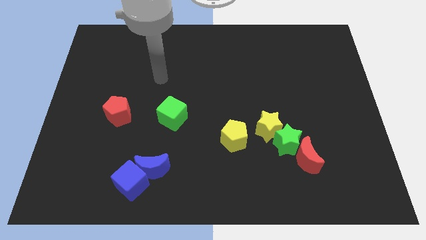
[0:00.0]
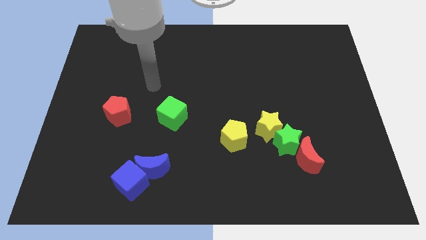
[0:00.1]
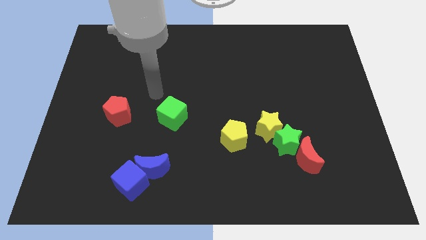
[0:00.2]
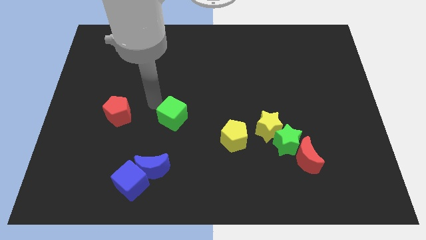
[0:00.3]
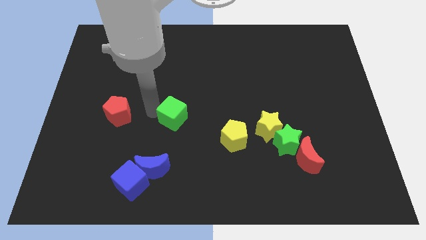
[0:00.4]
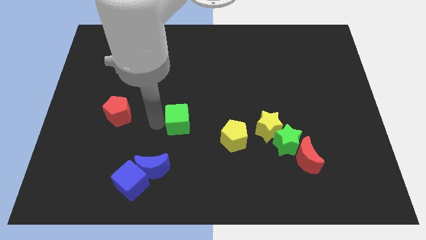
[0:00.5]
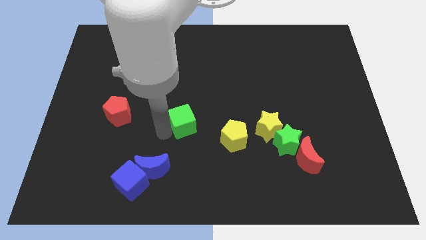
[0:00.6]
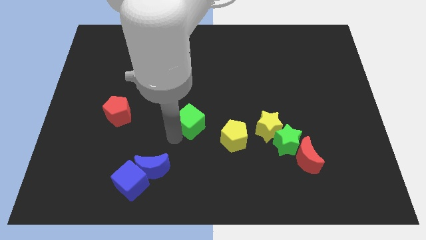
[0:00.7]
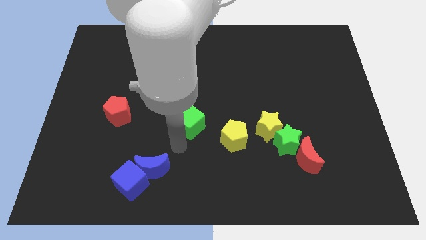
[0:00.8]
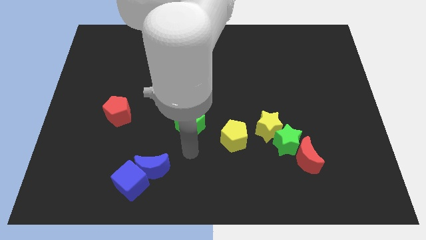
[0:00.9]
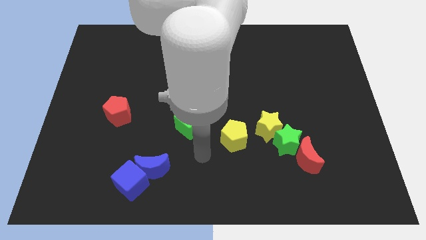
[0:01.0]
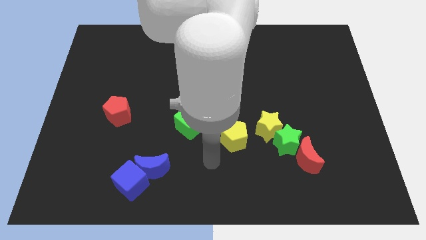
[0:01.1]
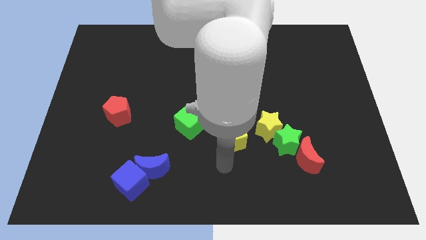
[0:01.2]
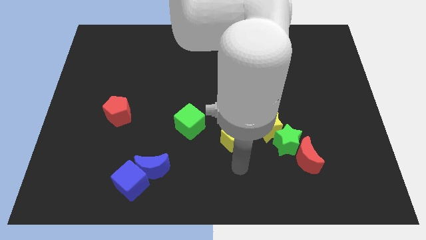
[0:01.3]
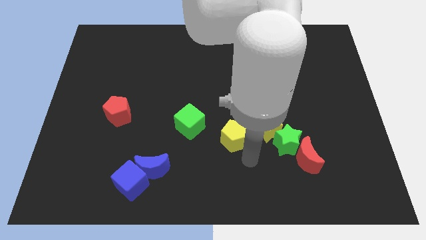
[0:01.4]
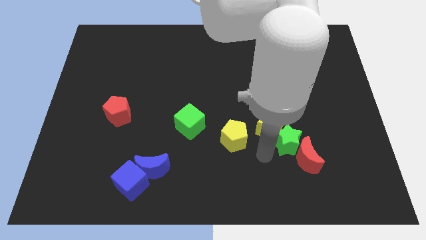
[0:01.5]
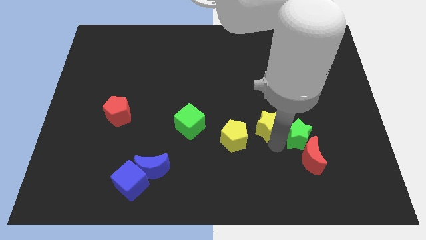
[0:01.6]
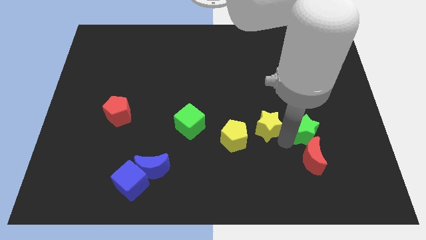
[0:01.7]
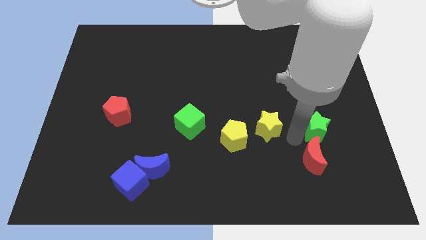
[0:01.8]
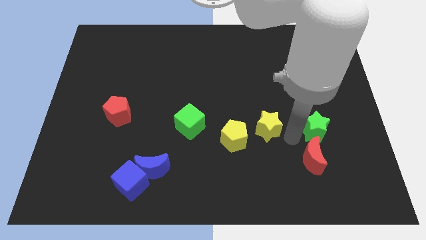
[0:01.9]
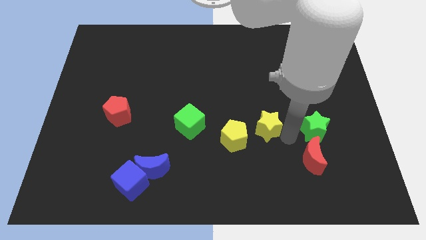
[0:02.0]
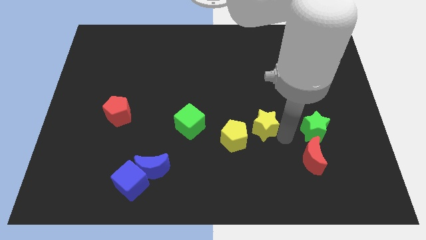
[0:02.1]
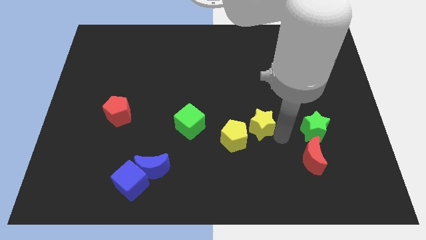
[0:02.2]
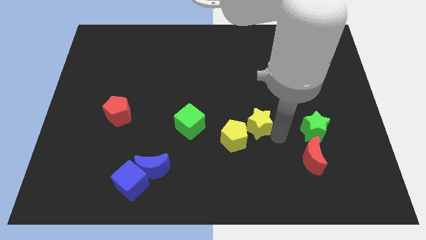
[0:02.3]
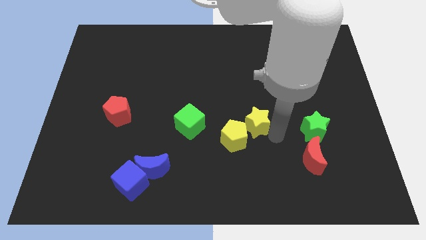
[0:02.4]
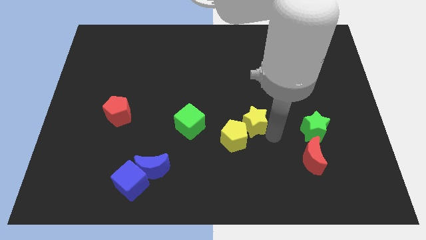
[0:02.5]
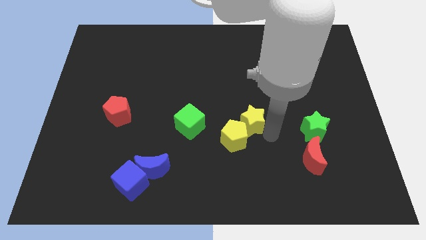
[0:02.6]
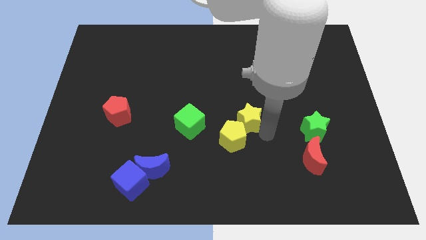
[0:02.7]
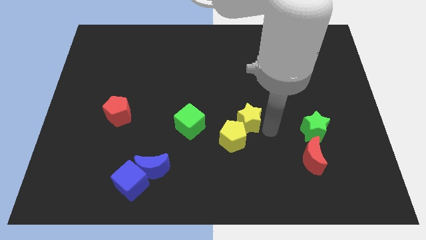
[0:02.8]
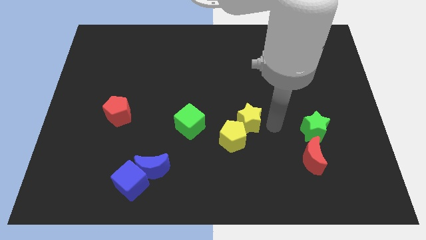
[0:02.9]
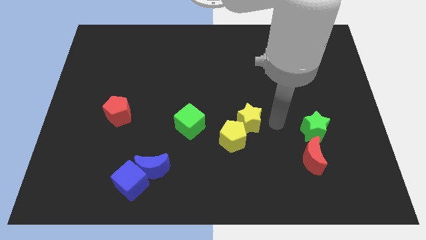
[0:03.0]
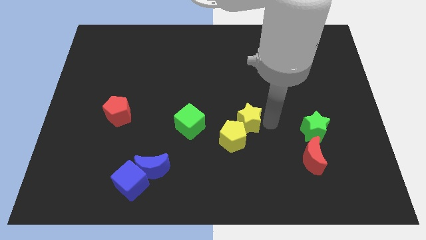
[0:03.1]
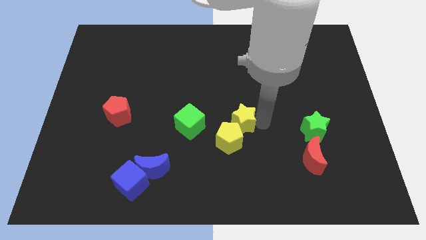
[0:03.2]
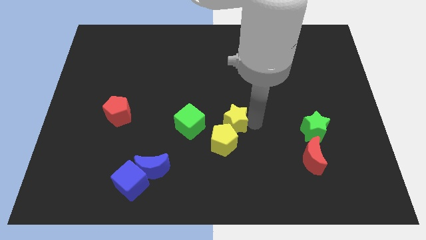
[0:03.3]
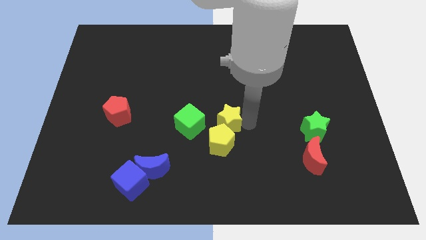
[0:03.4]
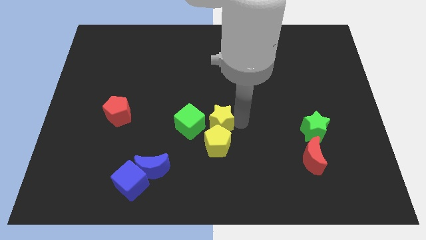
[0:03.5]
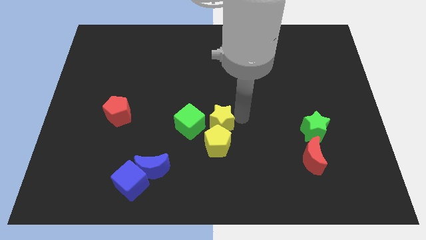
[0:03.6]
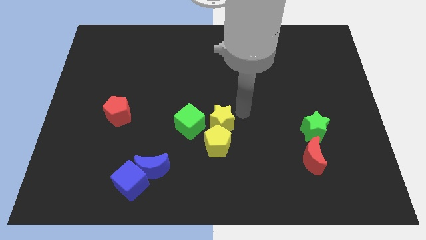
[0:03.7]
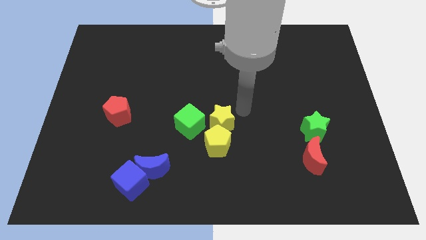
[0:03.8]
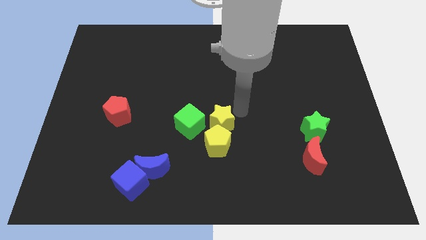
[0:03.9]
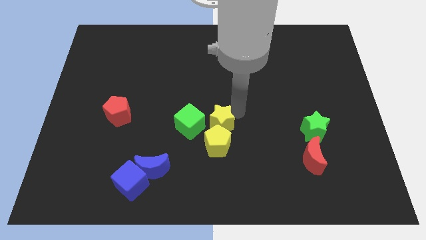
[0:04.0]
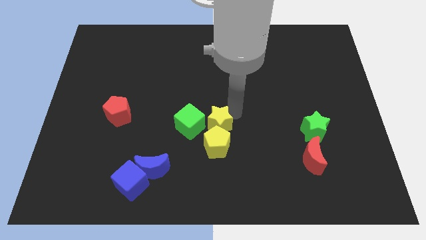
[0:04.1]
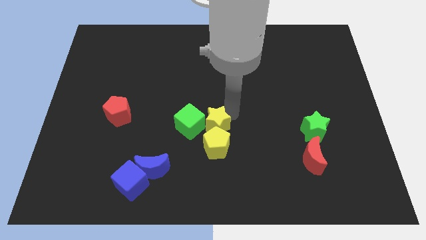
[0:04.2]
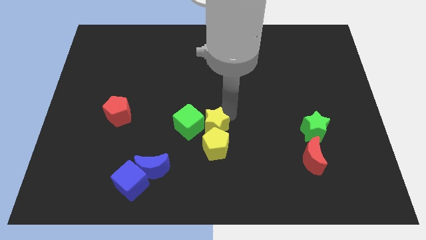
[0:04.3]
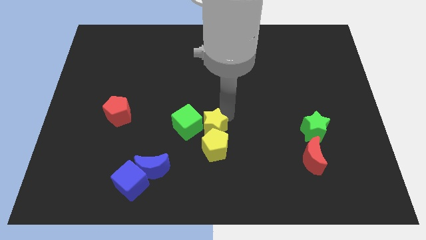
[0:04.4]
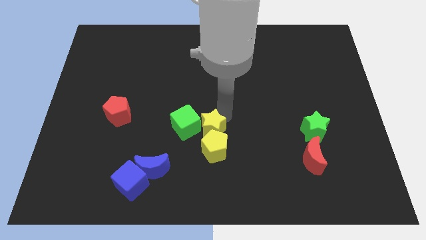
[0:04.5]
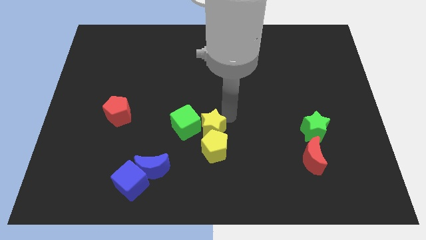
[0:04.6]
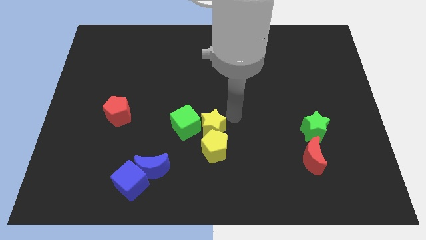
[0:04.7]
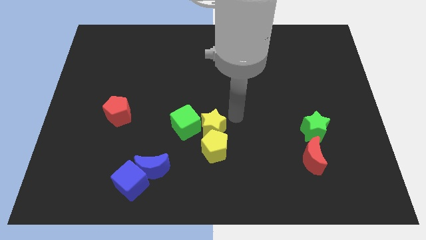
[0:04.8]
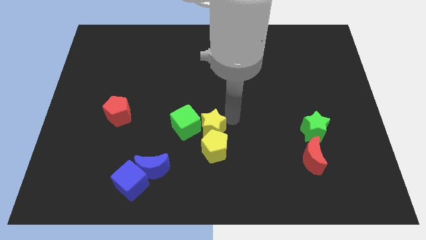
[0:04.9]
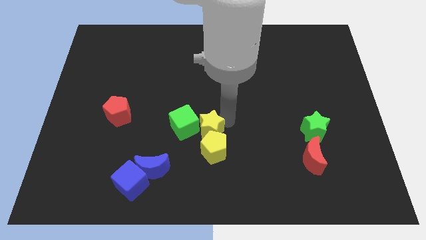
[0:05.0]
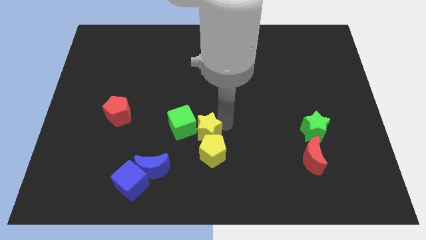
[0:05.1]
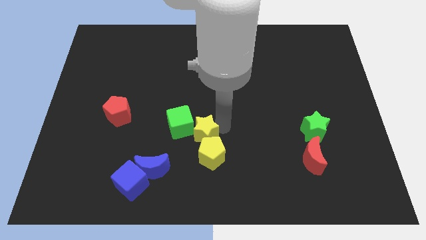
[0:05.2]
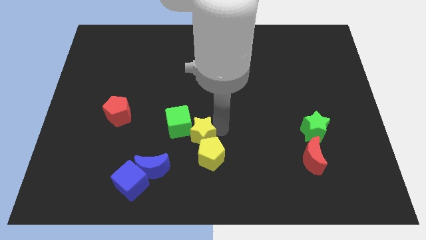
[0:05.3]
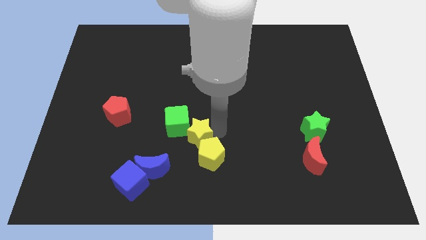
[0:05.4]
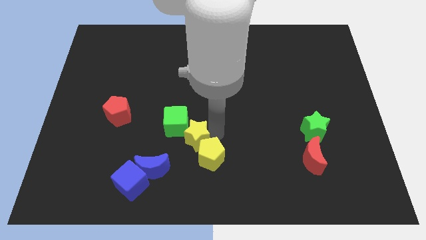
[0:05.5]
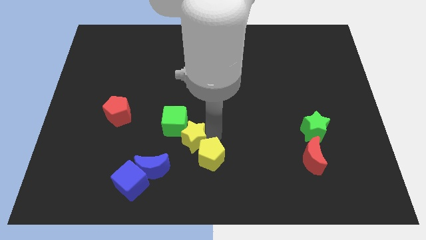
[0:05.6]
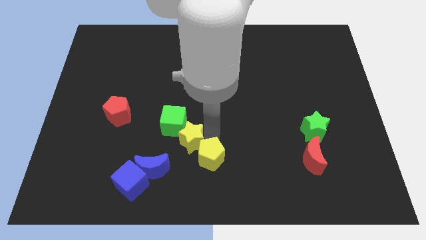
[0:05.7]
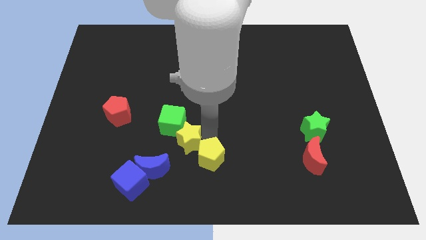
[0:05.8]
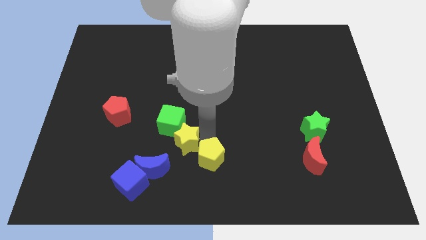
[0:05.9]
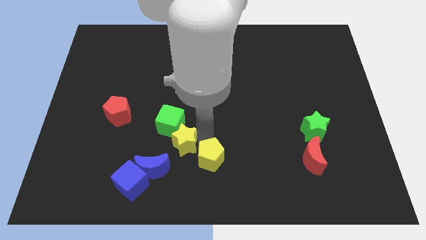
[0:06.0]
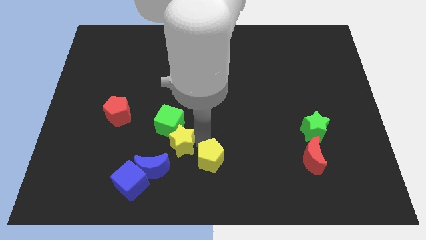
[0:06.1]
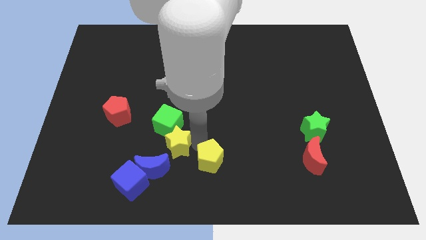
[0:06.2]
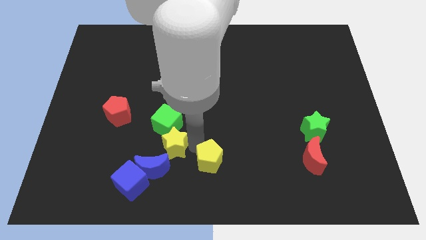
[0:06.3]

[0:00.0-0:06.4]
move the yellow star left

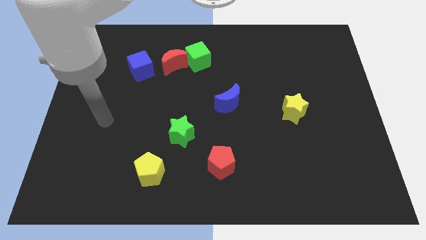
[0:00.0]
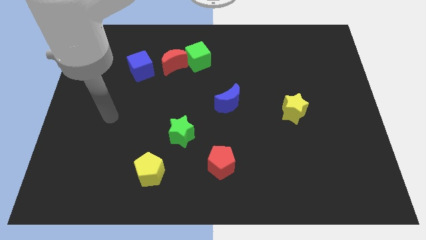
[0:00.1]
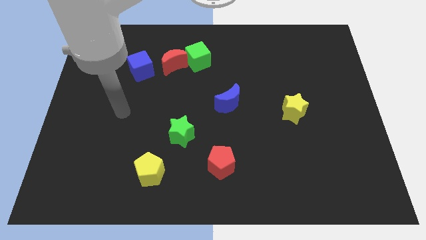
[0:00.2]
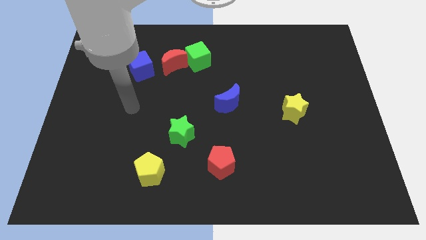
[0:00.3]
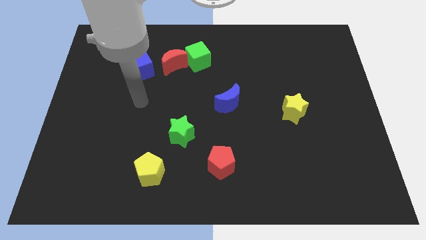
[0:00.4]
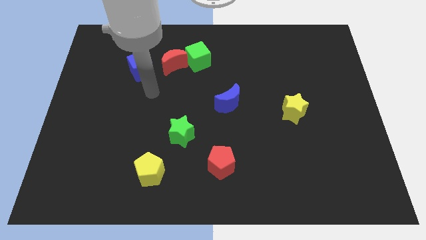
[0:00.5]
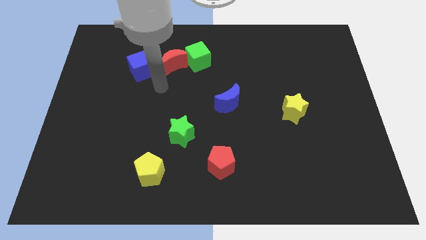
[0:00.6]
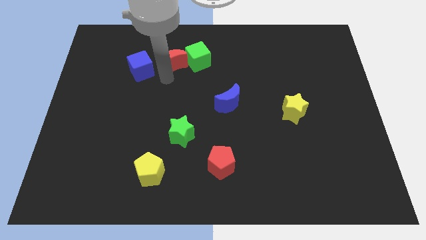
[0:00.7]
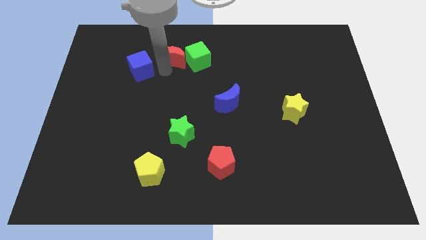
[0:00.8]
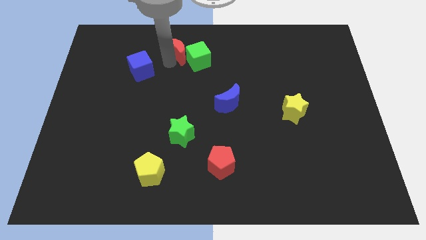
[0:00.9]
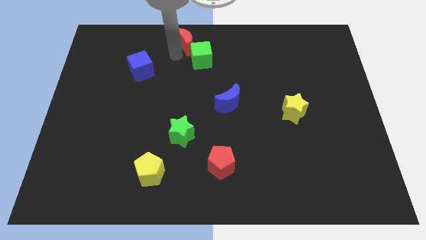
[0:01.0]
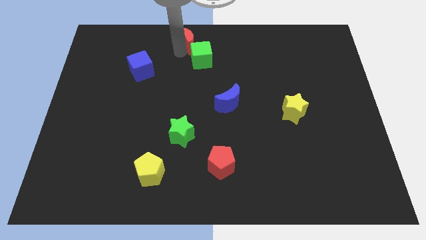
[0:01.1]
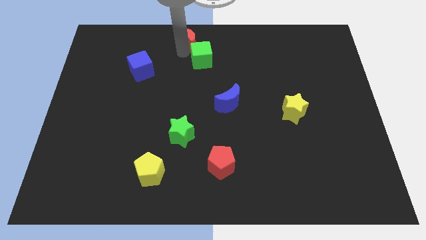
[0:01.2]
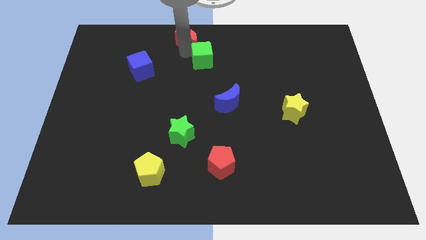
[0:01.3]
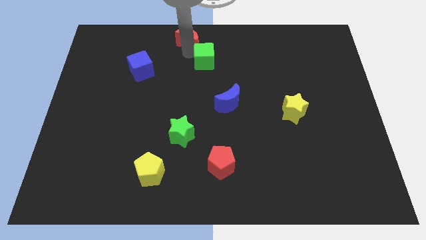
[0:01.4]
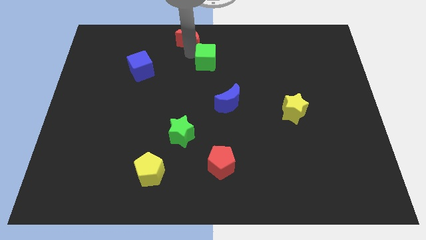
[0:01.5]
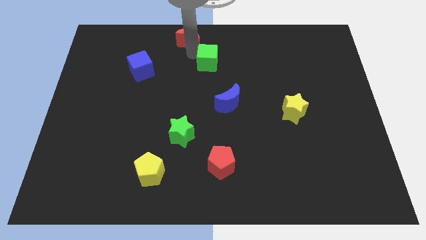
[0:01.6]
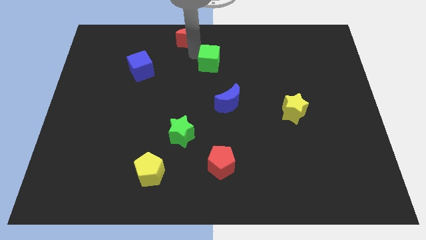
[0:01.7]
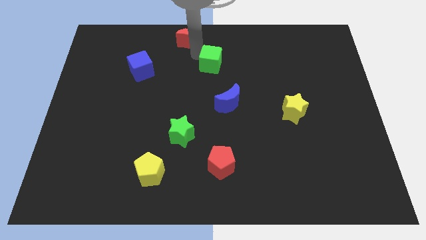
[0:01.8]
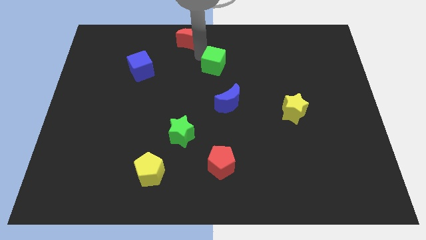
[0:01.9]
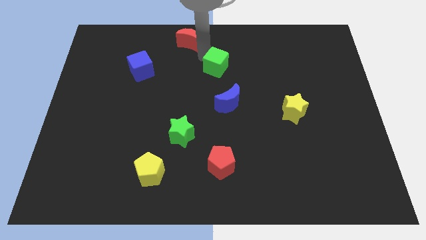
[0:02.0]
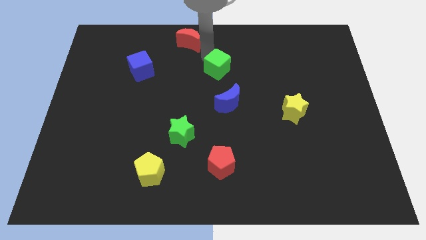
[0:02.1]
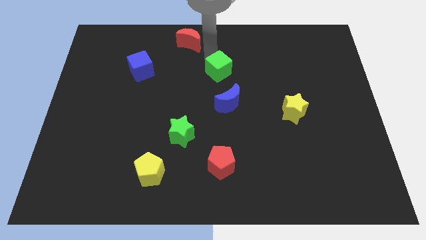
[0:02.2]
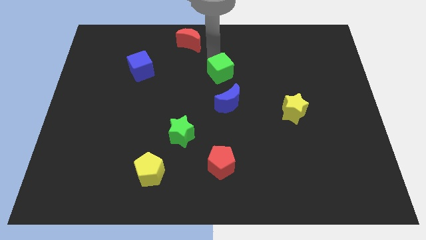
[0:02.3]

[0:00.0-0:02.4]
slide the green cube slightly downwards and then to the right
